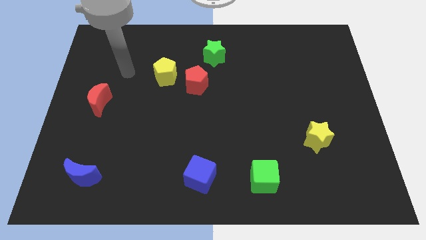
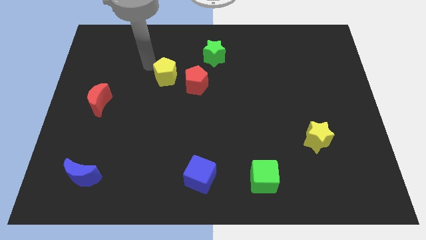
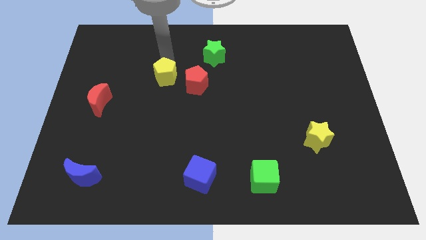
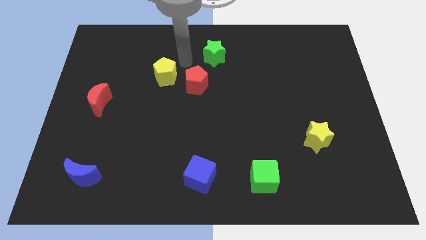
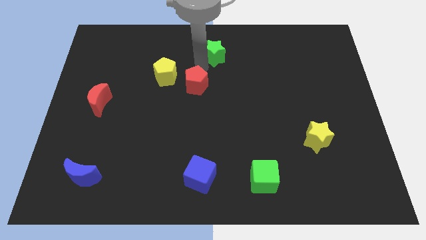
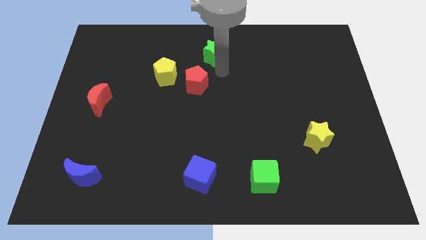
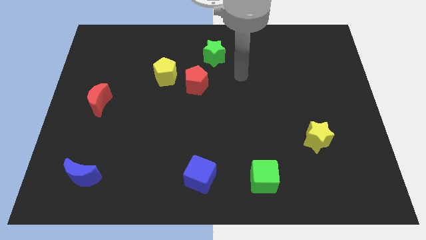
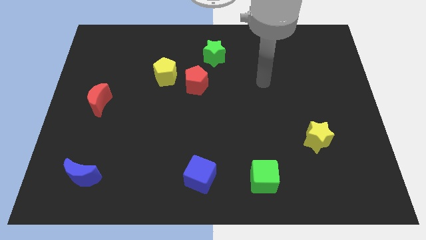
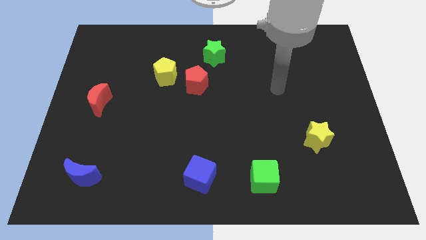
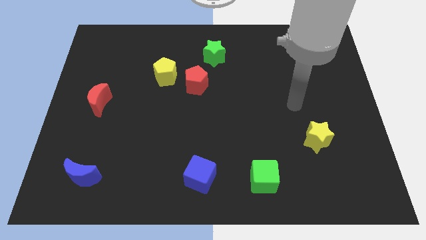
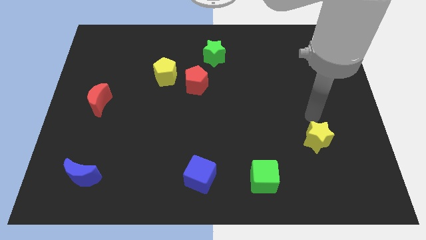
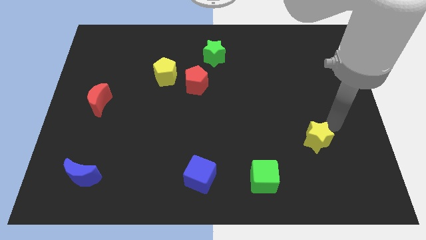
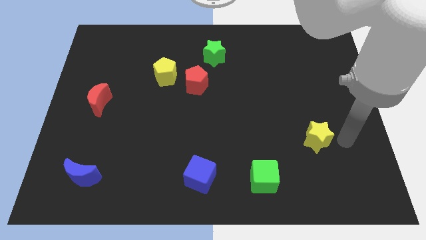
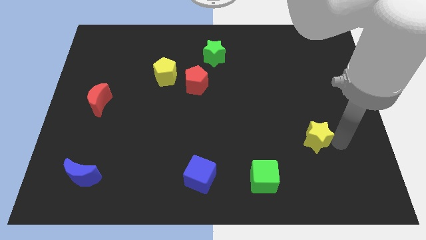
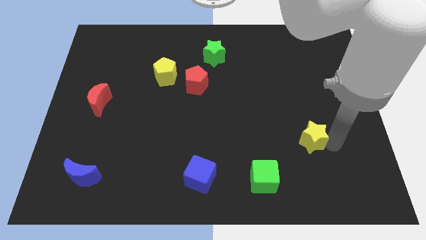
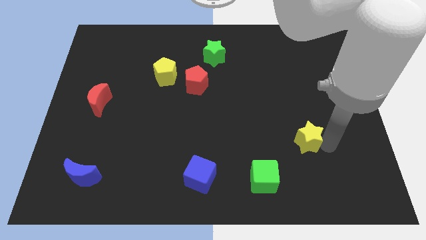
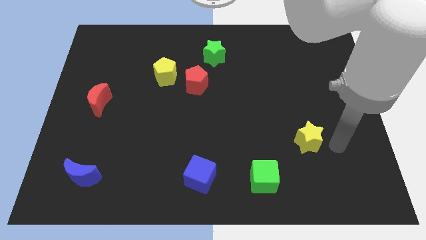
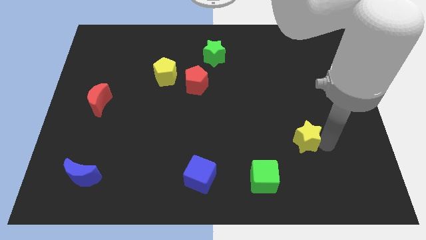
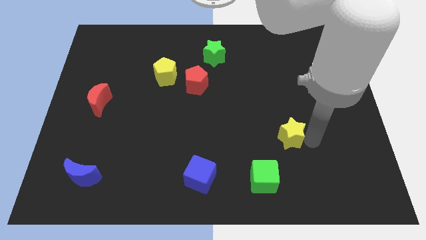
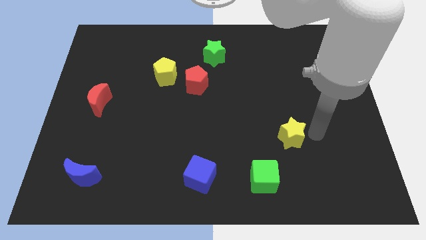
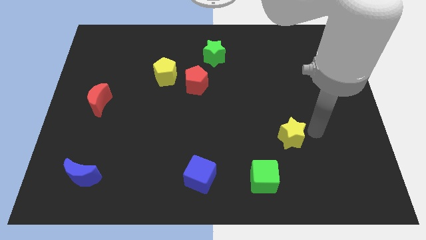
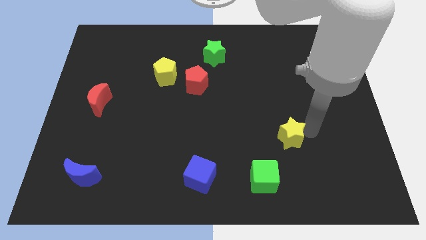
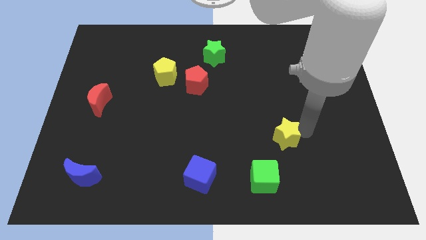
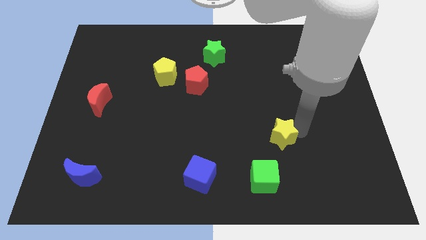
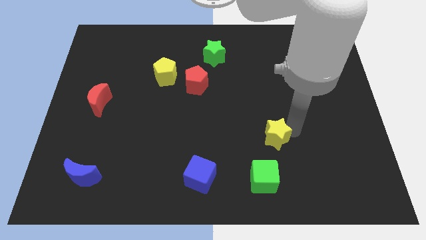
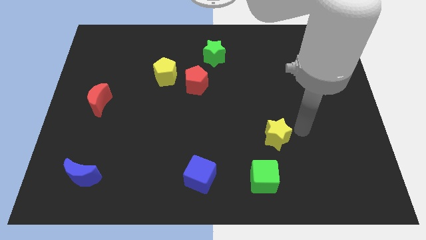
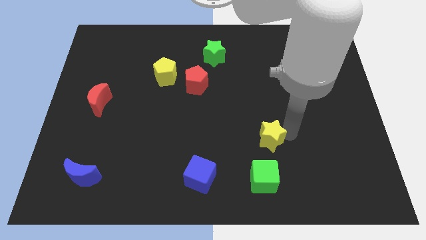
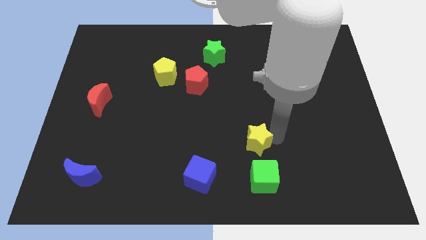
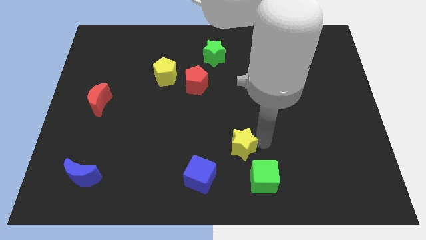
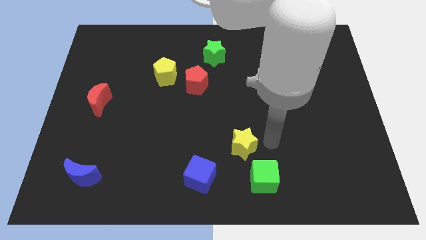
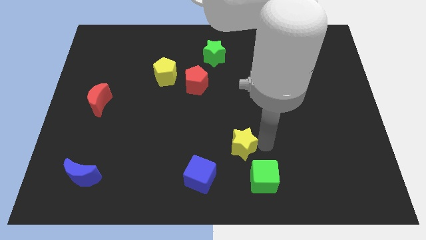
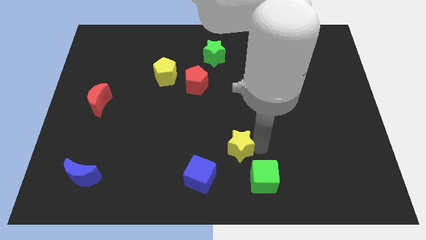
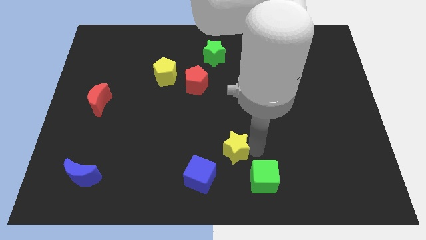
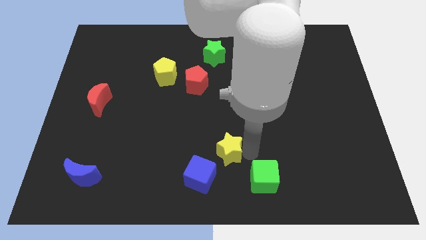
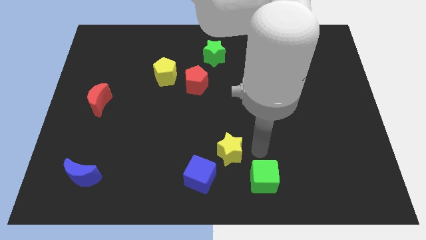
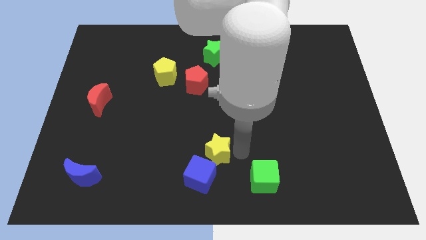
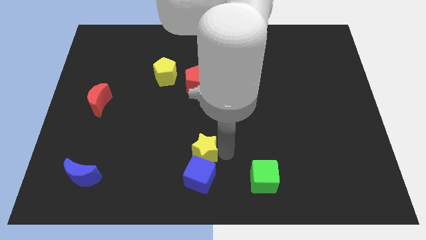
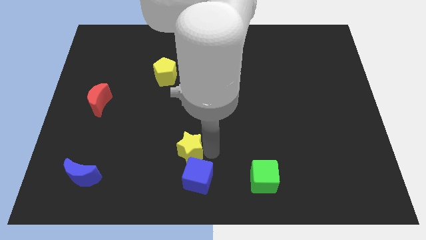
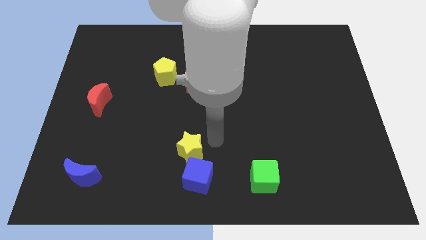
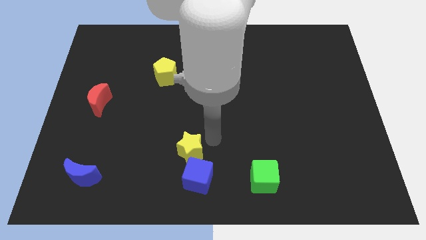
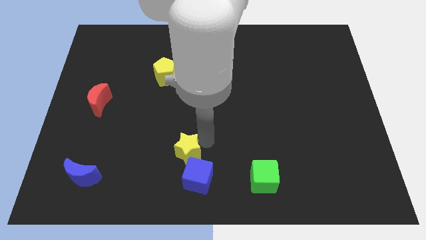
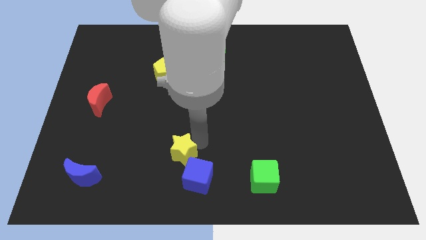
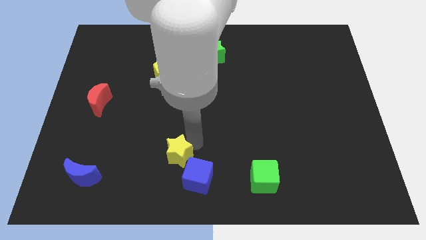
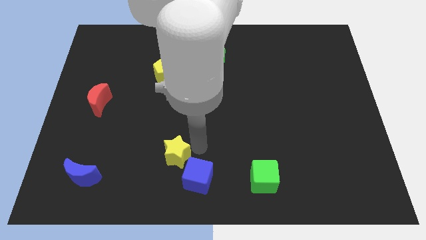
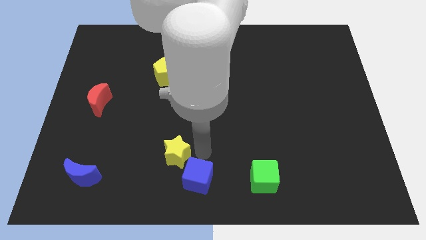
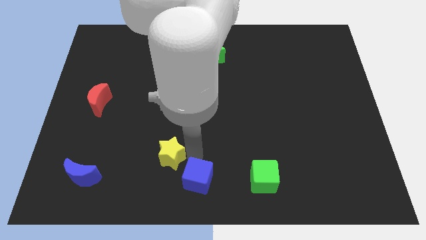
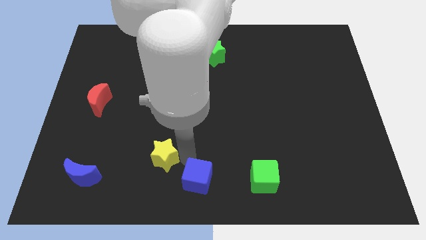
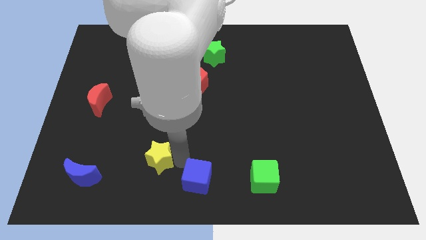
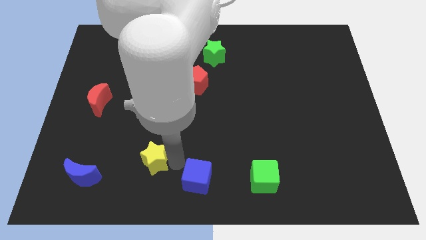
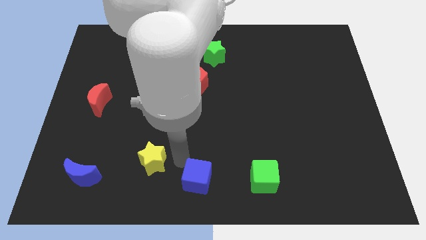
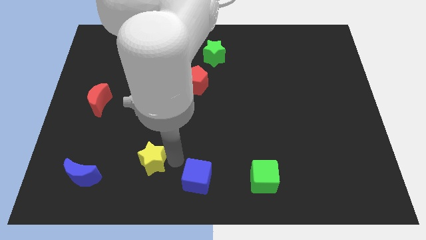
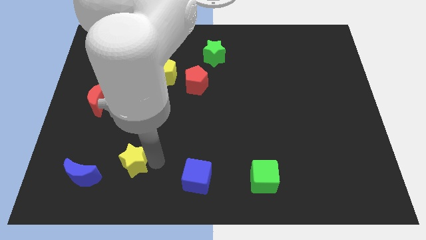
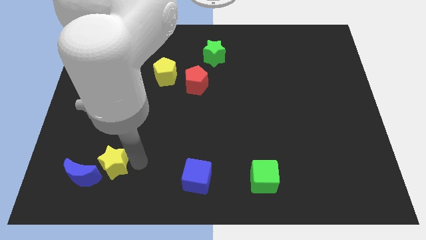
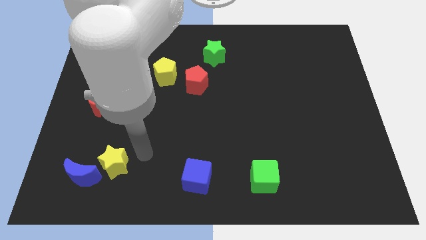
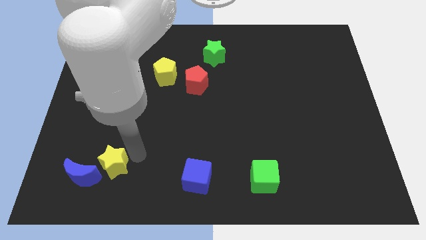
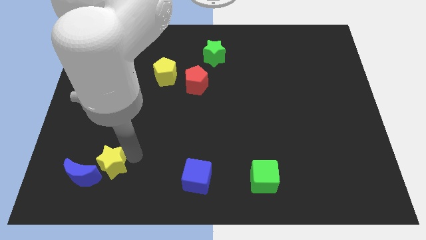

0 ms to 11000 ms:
push the yellow star towards the blue moon

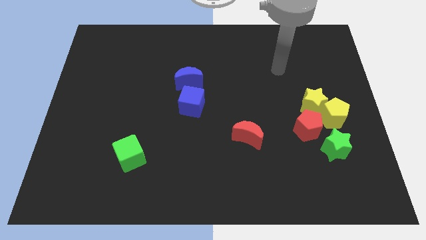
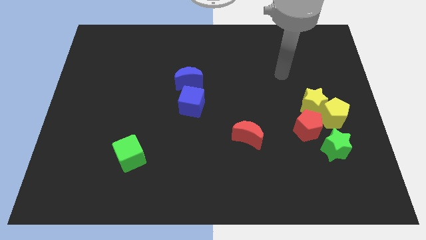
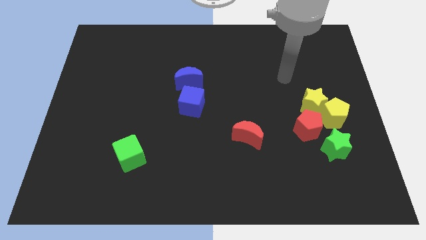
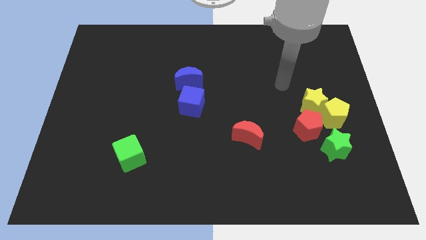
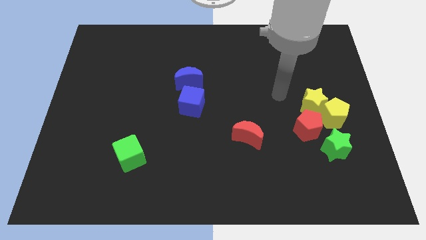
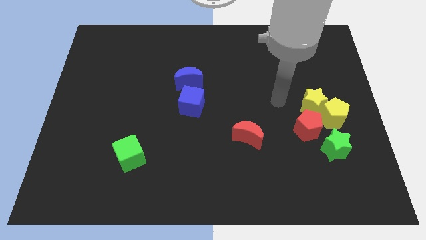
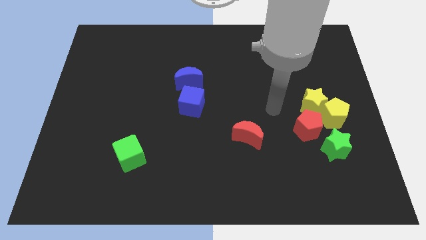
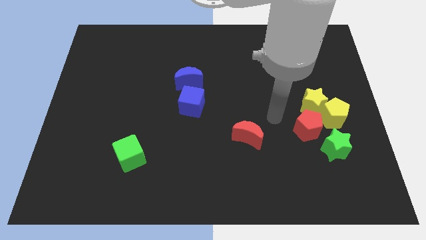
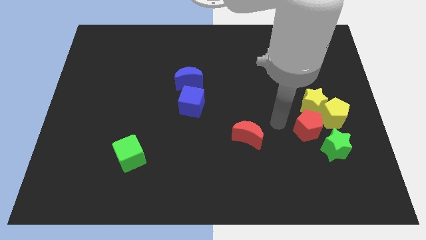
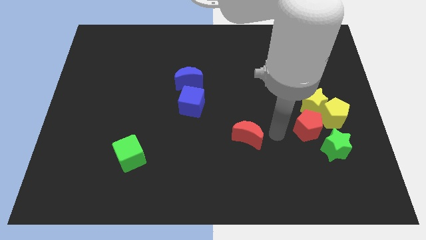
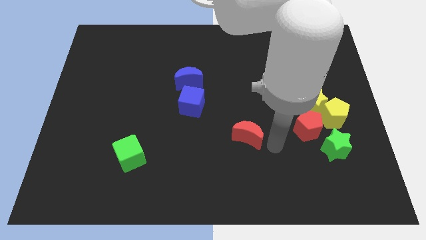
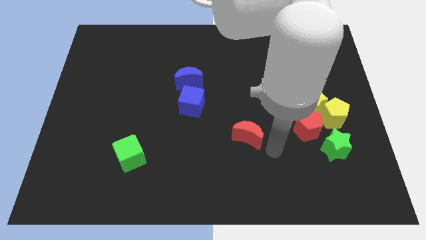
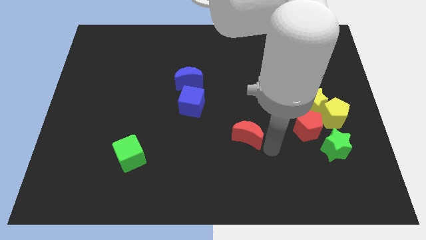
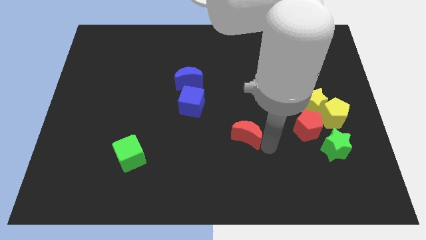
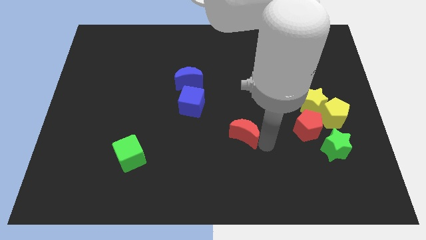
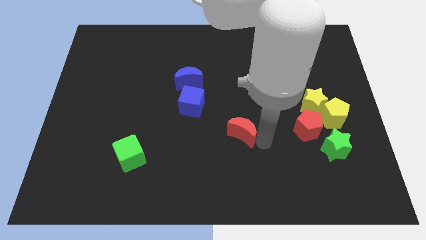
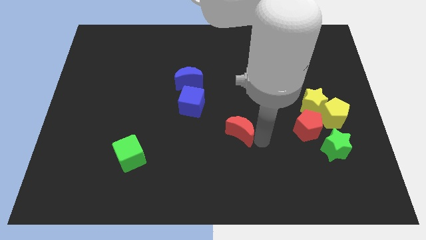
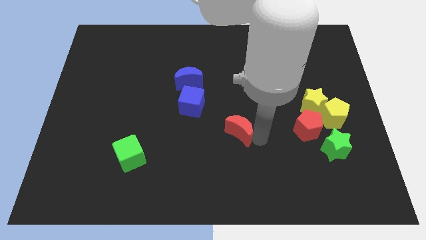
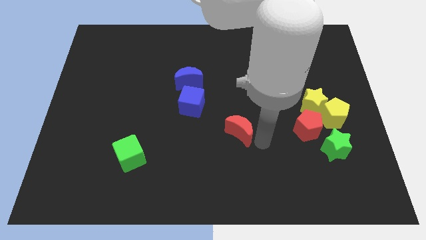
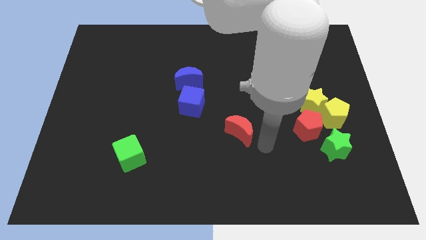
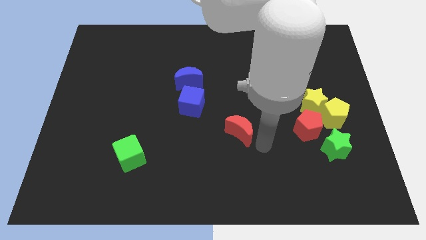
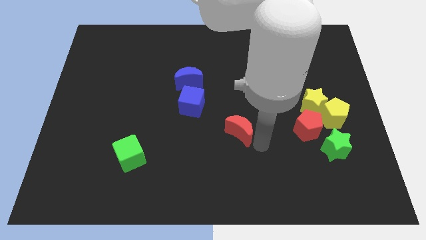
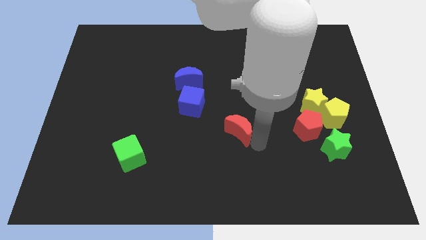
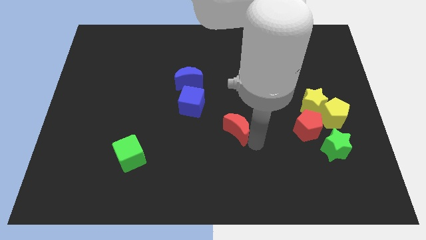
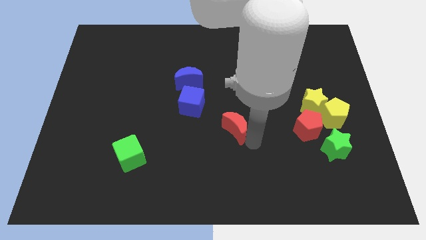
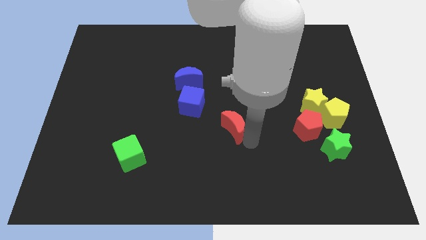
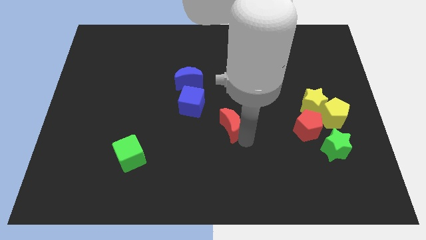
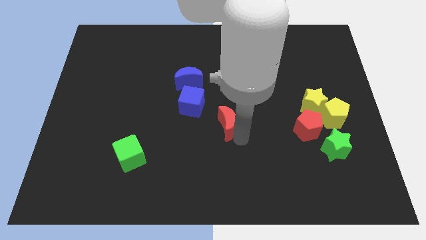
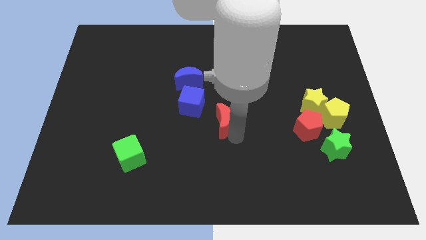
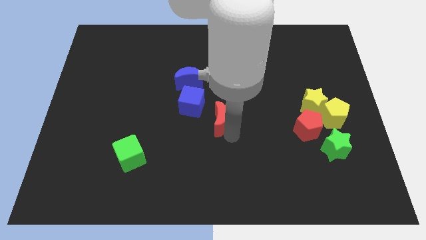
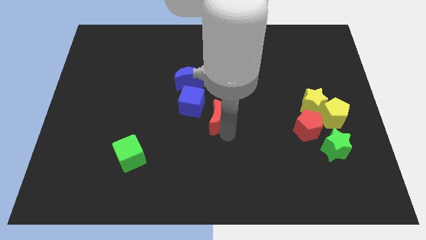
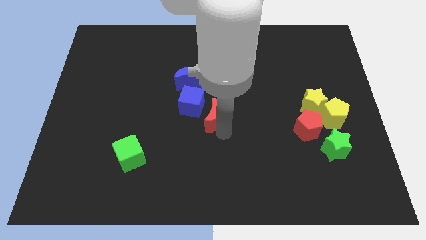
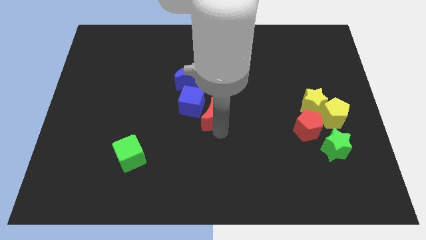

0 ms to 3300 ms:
put the red moon next to the blue cube
